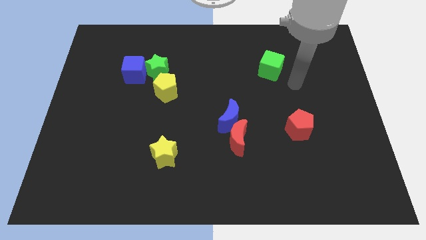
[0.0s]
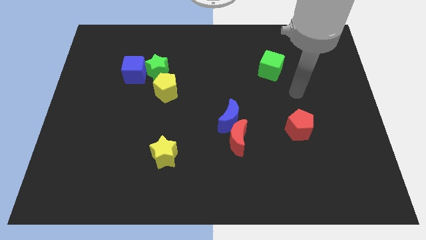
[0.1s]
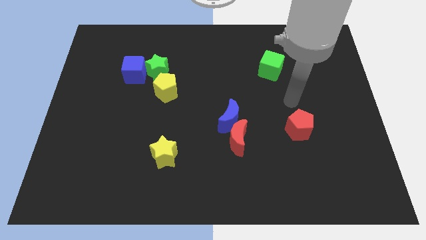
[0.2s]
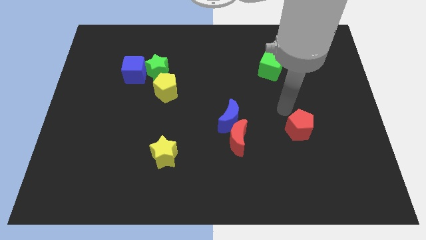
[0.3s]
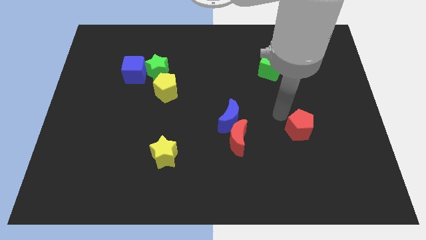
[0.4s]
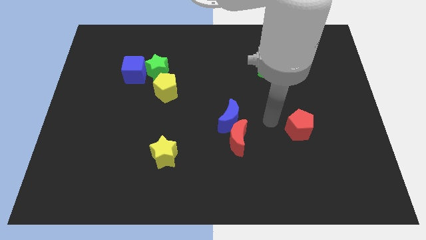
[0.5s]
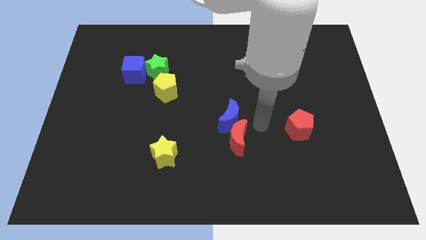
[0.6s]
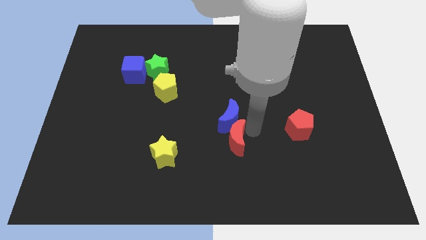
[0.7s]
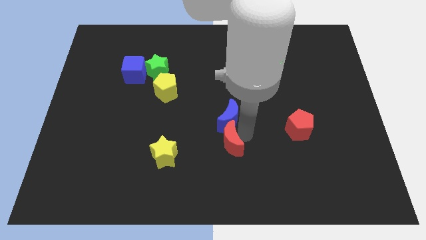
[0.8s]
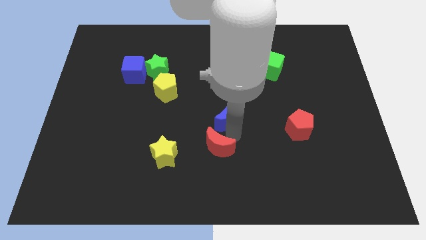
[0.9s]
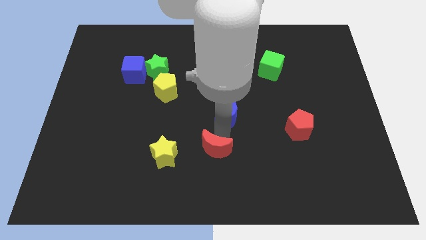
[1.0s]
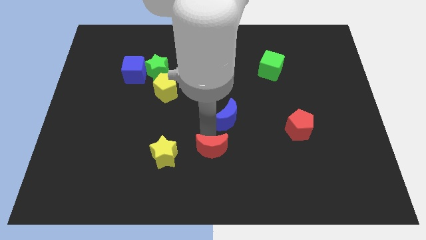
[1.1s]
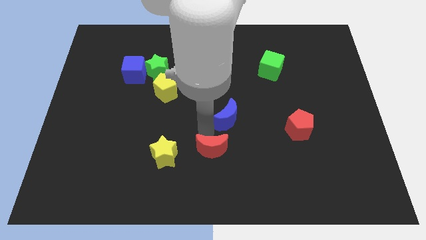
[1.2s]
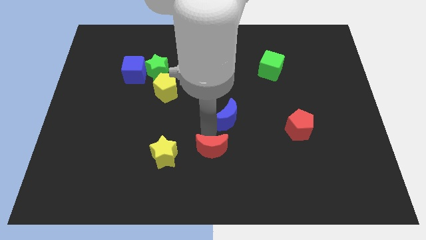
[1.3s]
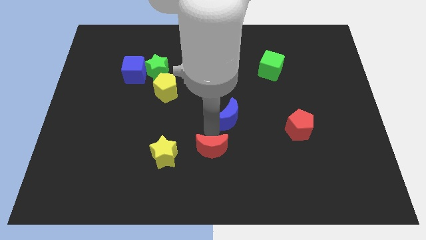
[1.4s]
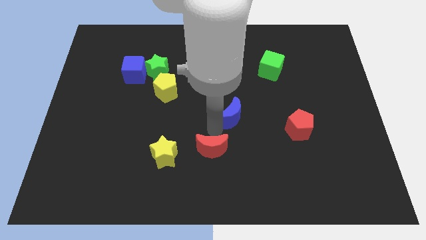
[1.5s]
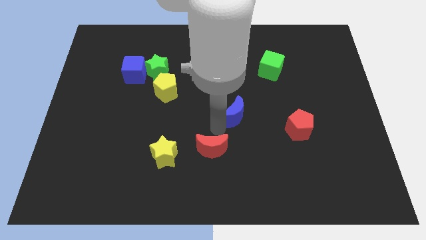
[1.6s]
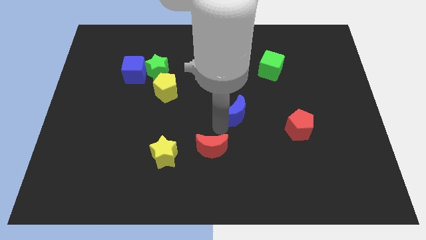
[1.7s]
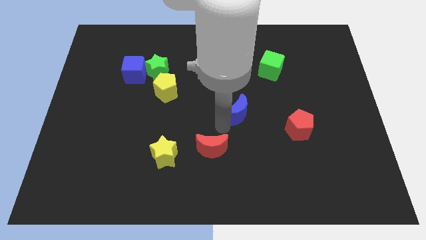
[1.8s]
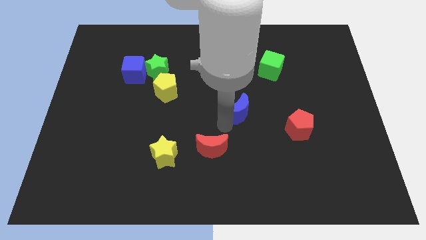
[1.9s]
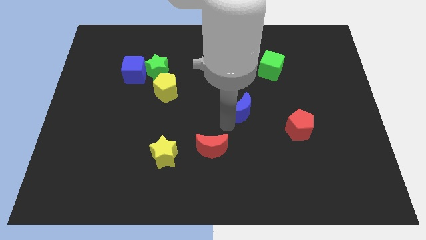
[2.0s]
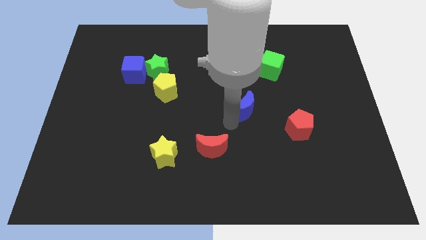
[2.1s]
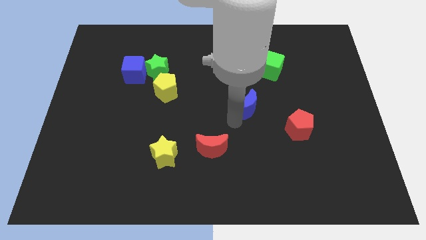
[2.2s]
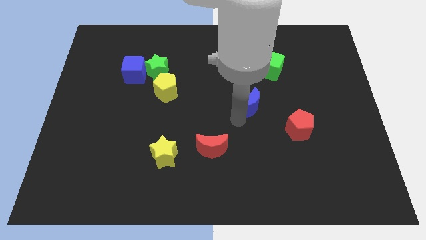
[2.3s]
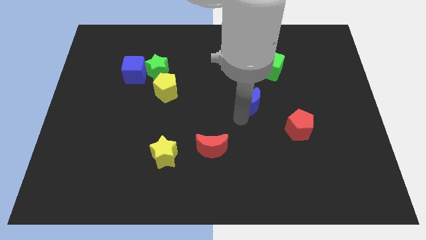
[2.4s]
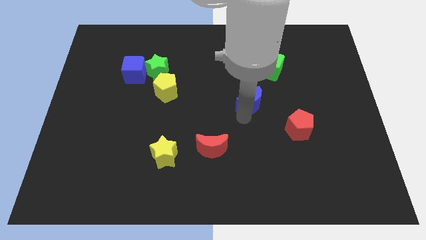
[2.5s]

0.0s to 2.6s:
slide the blue moon up and then to the right slightly

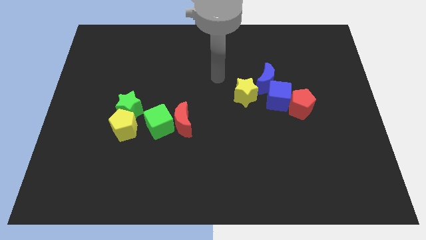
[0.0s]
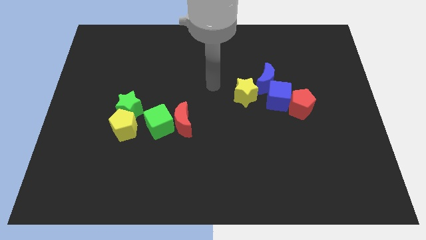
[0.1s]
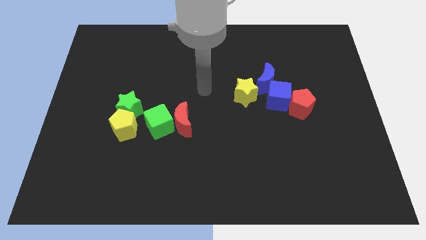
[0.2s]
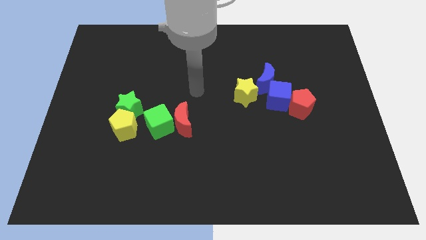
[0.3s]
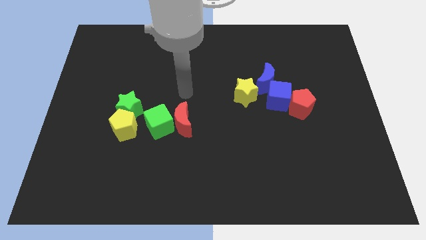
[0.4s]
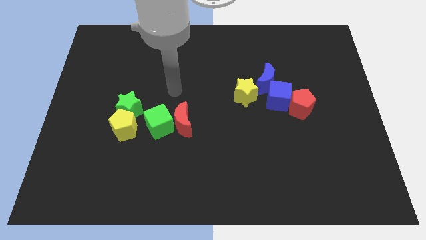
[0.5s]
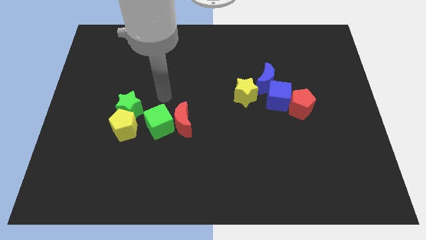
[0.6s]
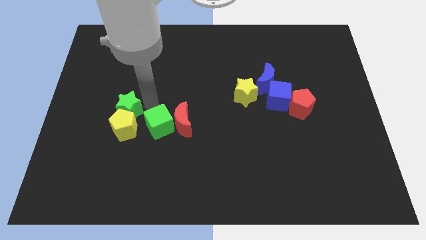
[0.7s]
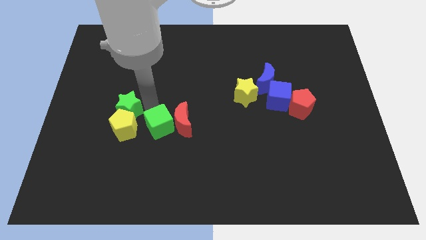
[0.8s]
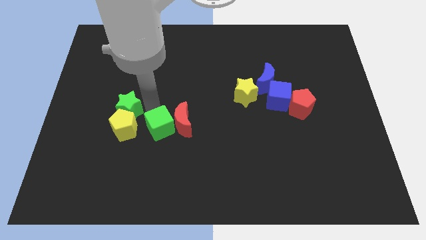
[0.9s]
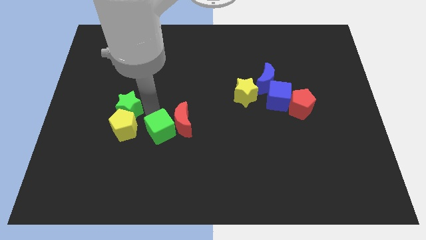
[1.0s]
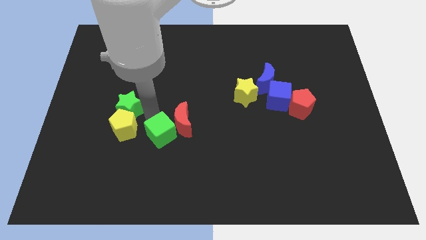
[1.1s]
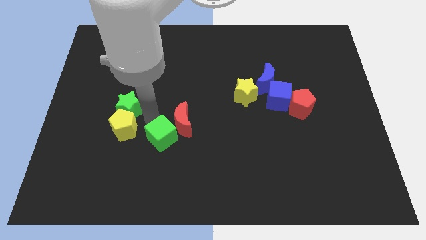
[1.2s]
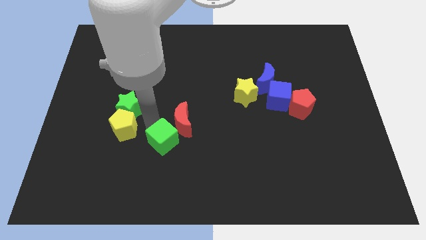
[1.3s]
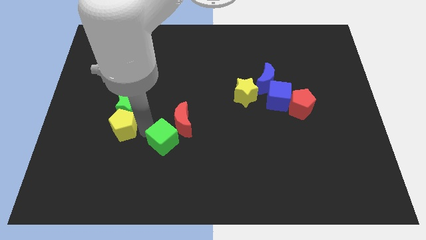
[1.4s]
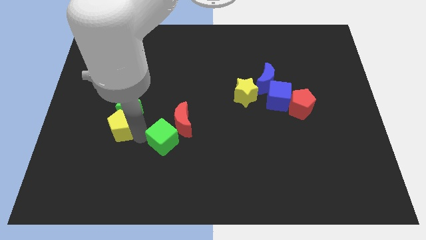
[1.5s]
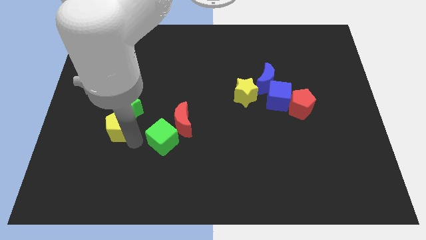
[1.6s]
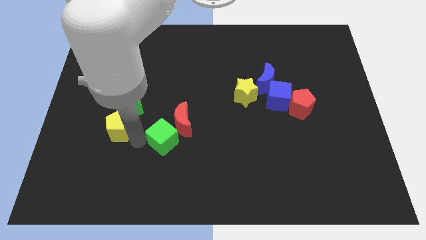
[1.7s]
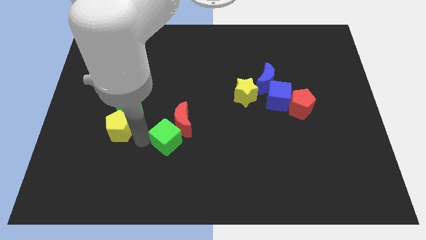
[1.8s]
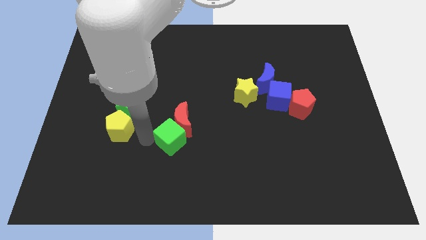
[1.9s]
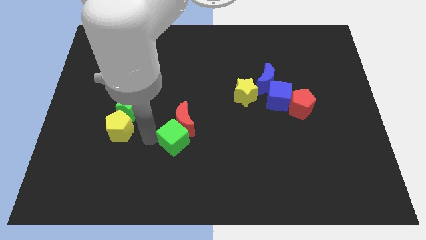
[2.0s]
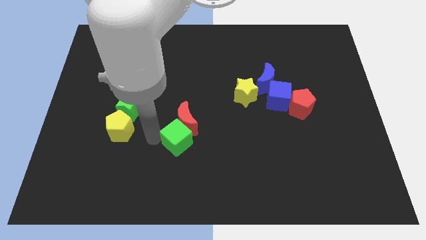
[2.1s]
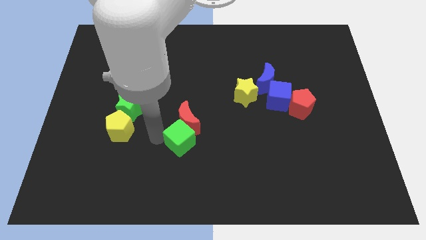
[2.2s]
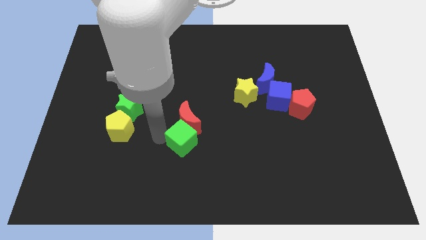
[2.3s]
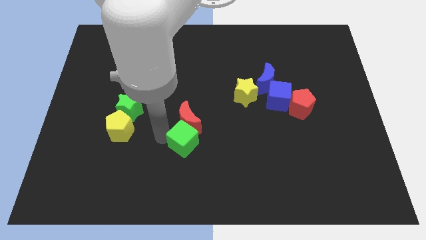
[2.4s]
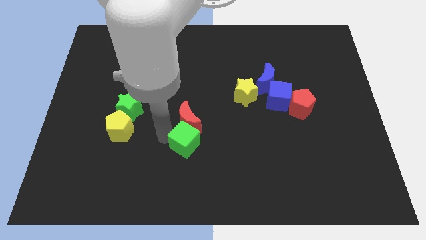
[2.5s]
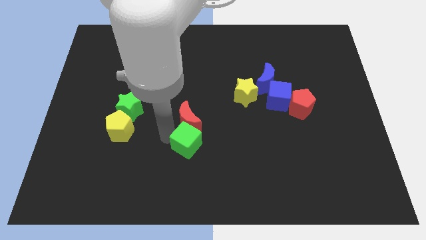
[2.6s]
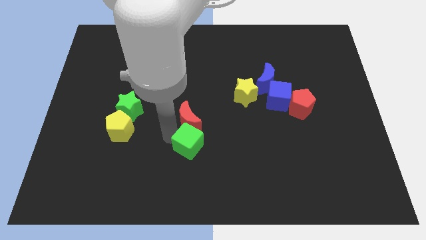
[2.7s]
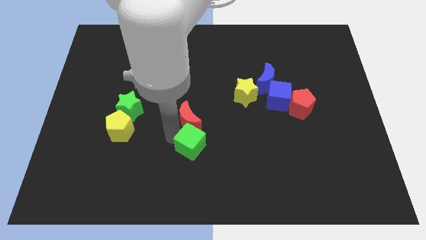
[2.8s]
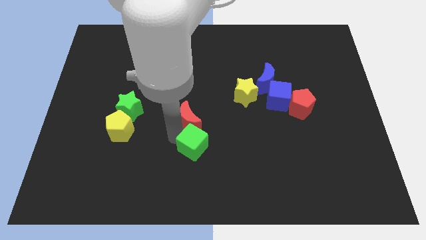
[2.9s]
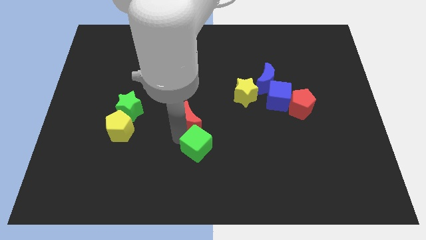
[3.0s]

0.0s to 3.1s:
slightly move the green cube to the right

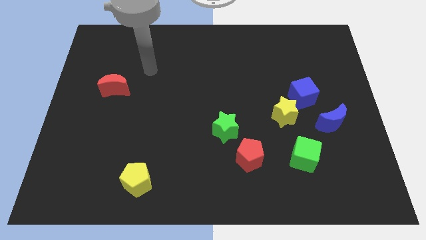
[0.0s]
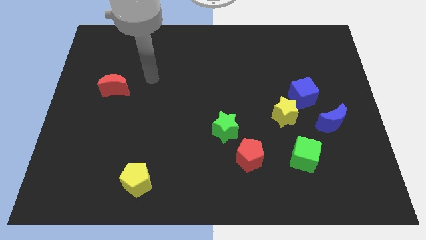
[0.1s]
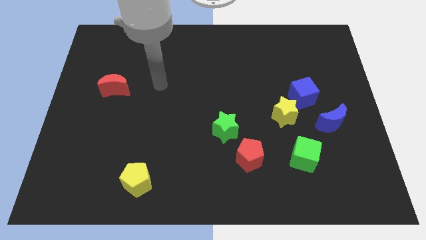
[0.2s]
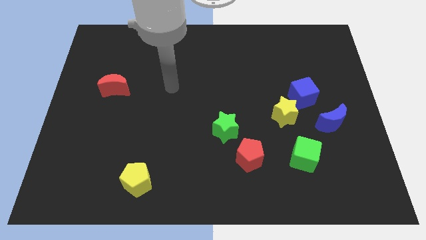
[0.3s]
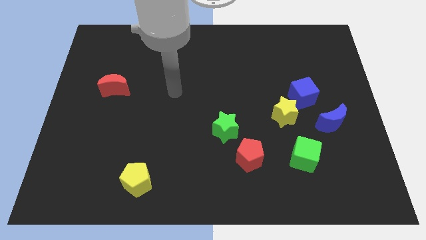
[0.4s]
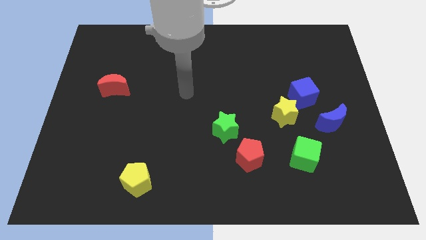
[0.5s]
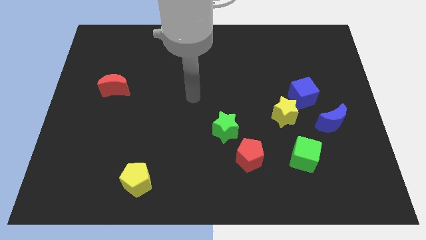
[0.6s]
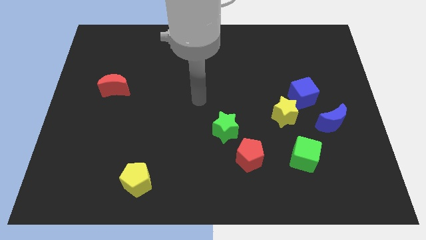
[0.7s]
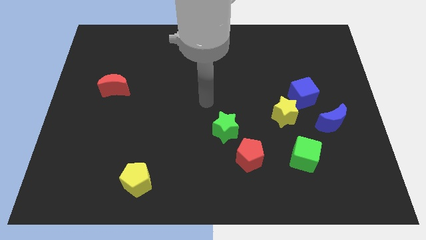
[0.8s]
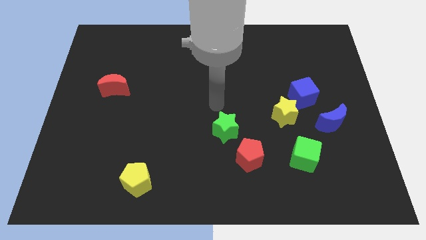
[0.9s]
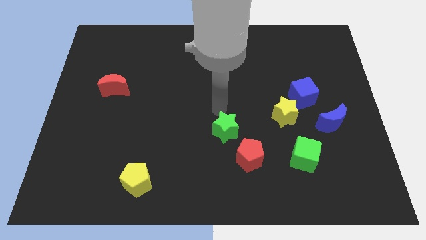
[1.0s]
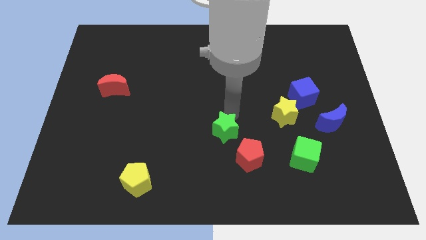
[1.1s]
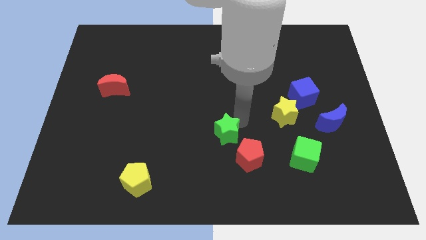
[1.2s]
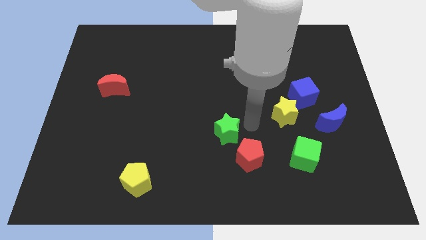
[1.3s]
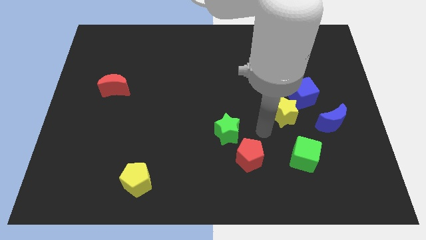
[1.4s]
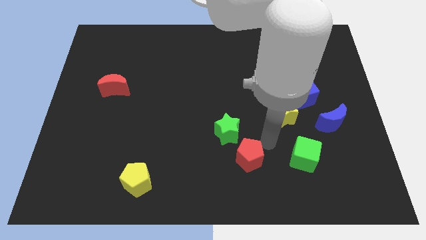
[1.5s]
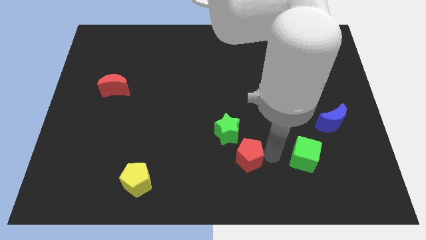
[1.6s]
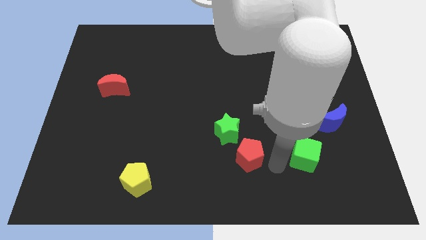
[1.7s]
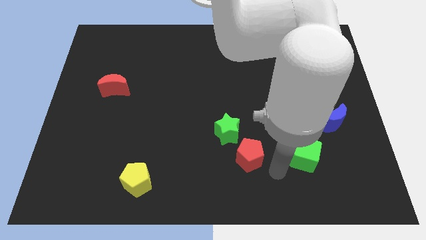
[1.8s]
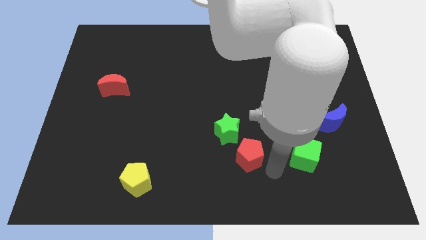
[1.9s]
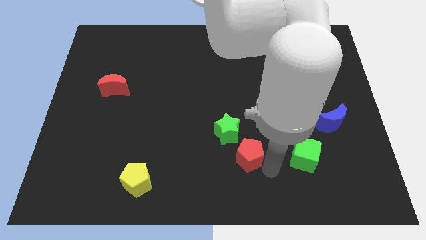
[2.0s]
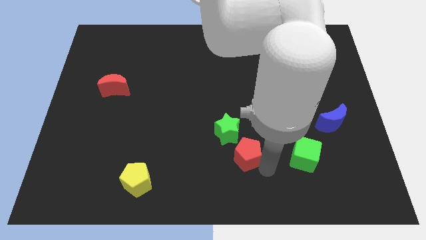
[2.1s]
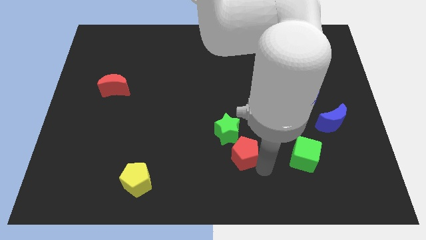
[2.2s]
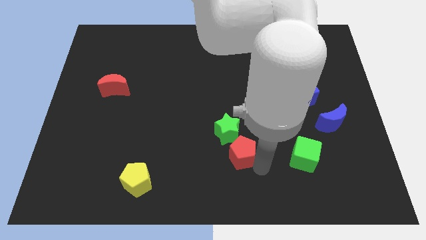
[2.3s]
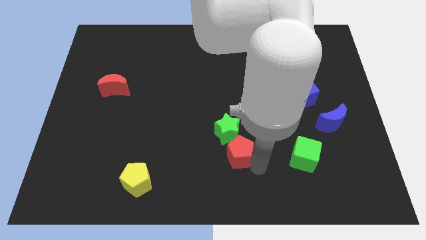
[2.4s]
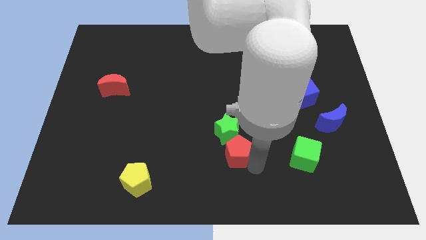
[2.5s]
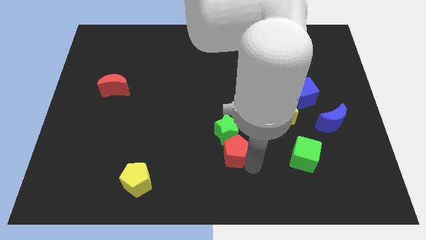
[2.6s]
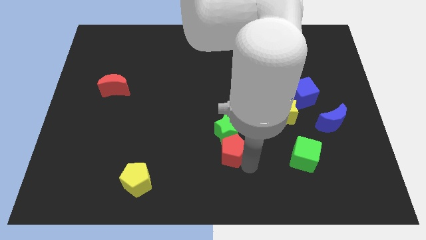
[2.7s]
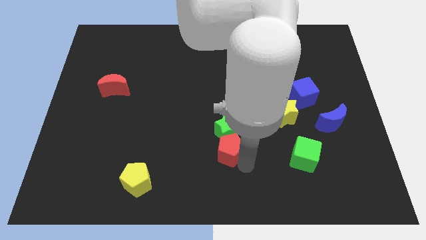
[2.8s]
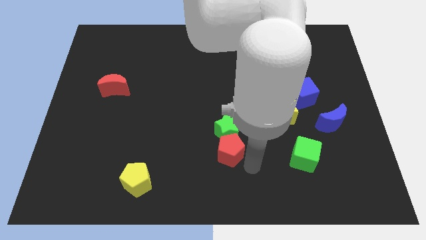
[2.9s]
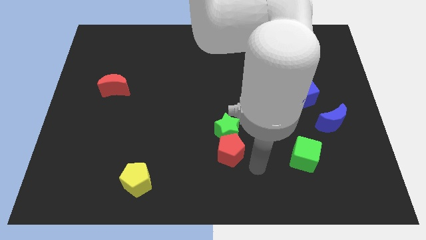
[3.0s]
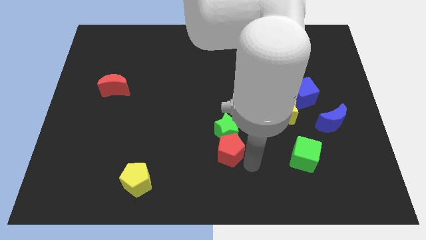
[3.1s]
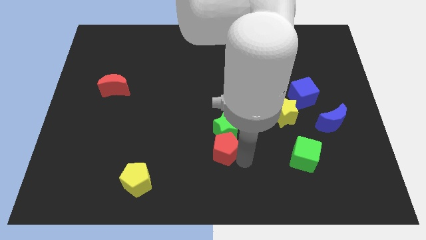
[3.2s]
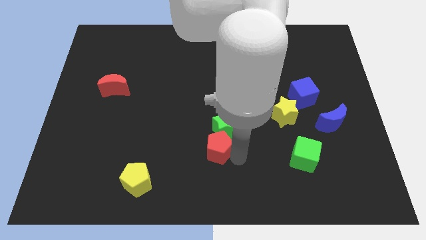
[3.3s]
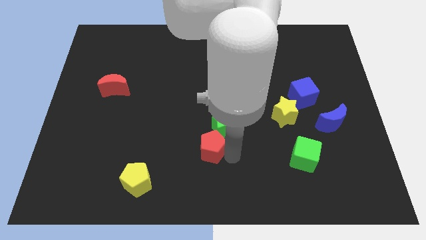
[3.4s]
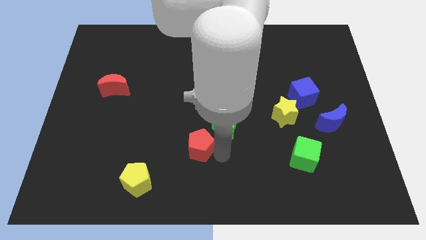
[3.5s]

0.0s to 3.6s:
push the red pentagon up and left a little
